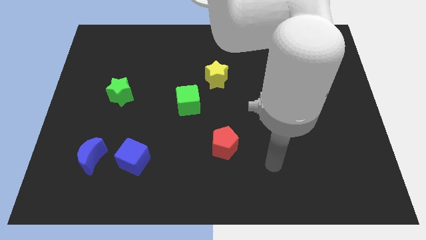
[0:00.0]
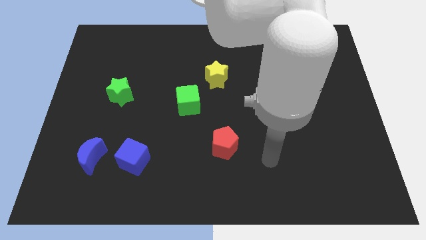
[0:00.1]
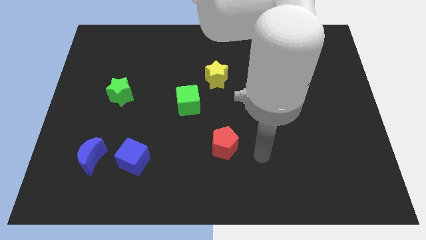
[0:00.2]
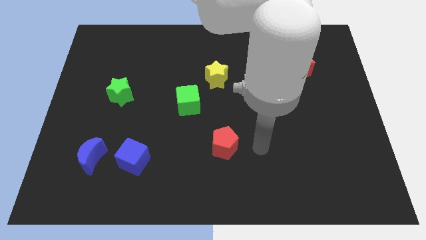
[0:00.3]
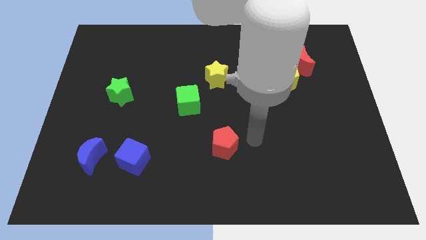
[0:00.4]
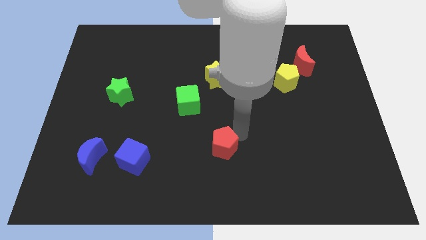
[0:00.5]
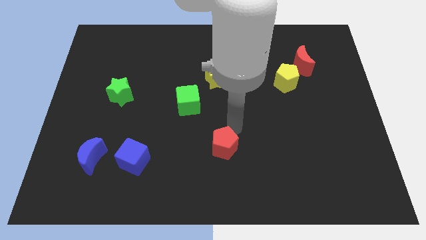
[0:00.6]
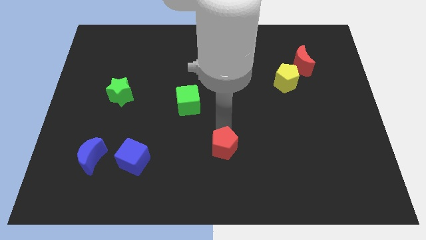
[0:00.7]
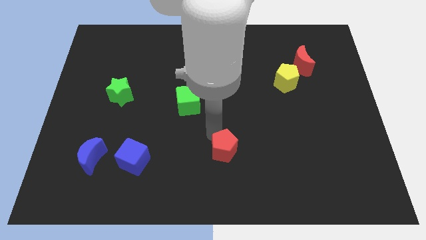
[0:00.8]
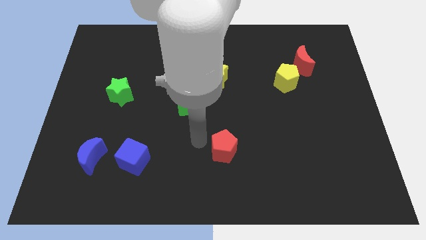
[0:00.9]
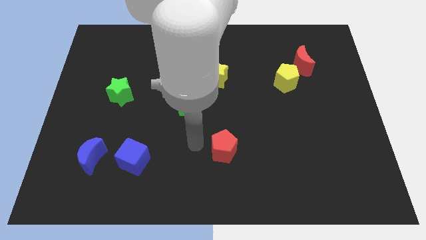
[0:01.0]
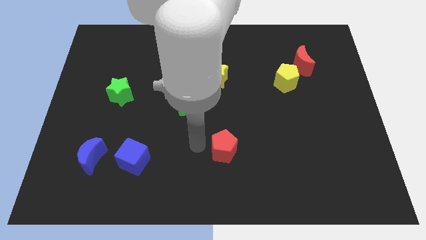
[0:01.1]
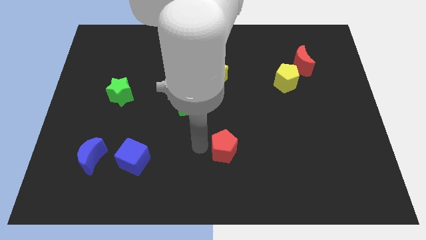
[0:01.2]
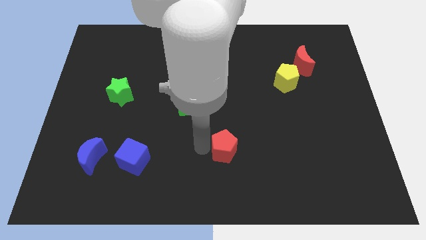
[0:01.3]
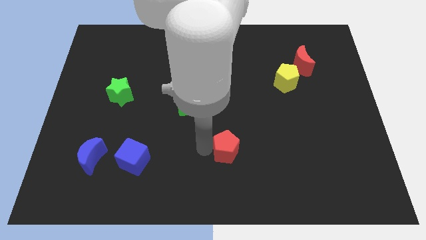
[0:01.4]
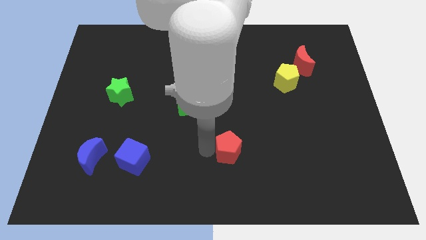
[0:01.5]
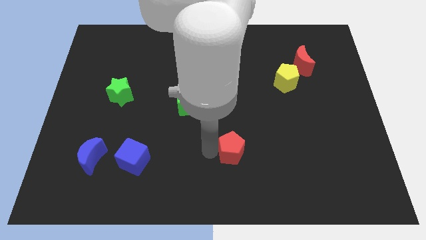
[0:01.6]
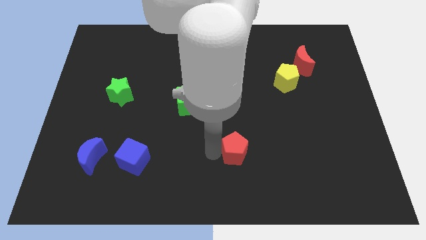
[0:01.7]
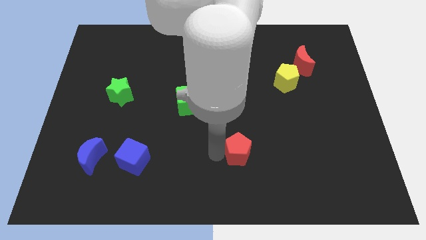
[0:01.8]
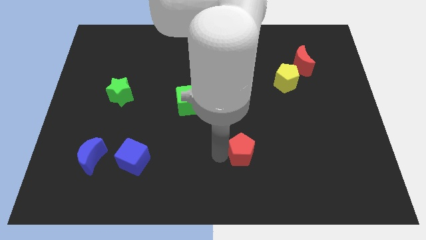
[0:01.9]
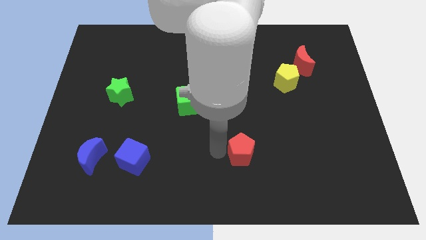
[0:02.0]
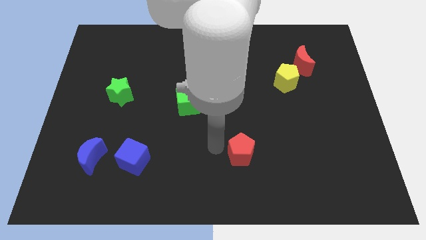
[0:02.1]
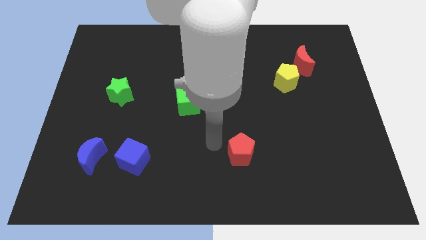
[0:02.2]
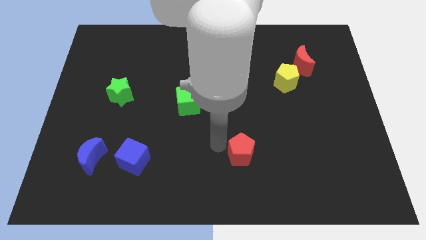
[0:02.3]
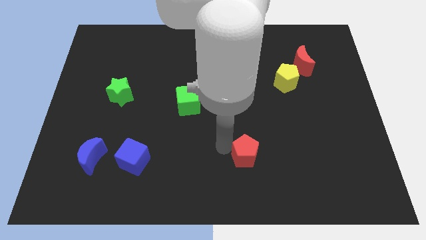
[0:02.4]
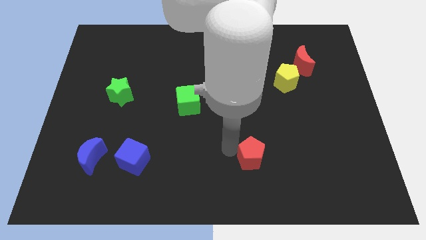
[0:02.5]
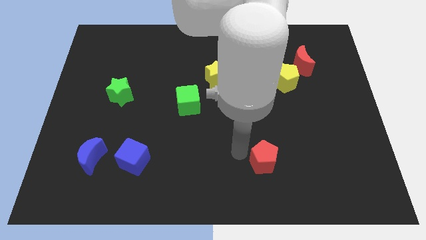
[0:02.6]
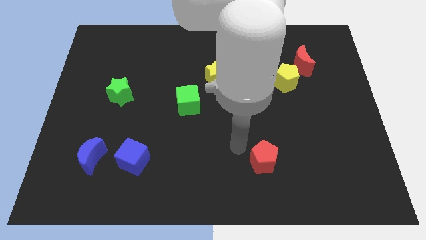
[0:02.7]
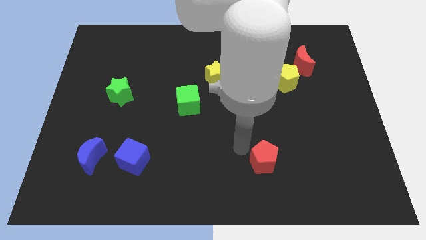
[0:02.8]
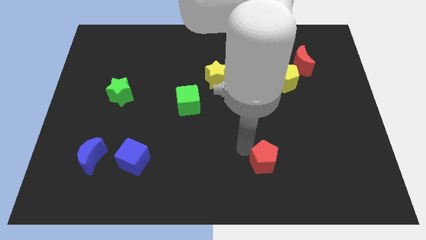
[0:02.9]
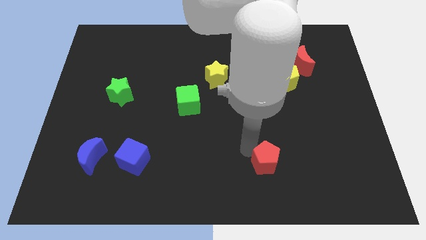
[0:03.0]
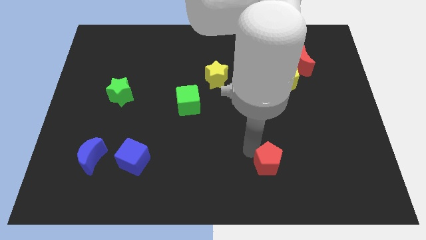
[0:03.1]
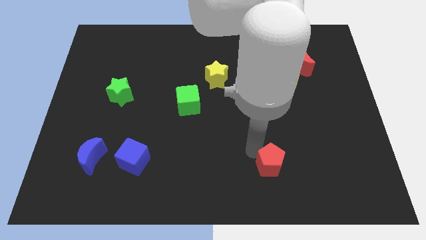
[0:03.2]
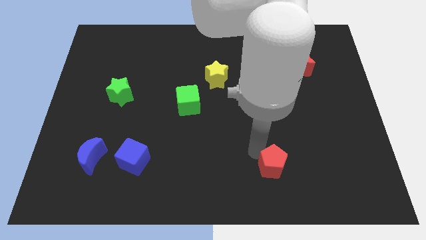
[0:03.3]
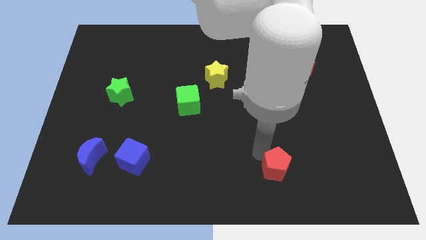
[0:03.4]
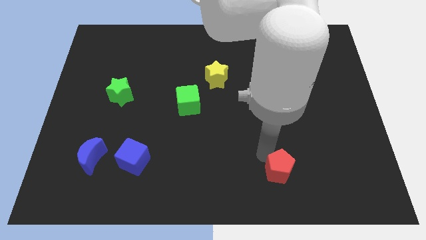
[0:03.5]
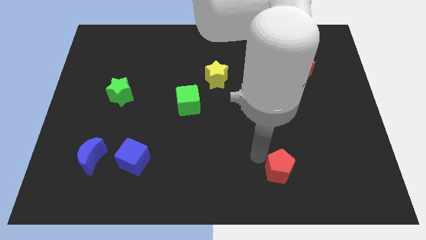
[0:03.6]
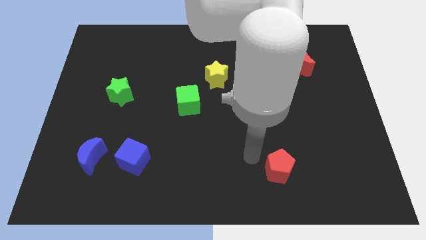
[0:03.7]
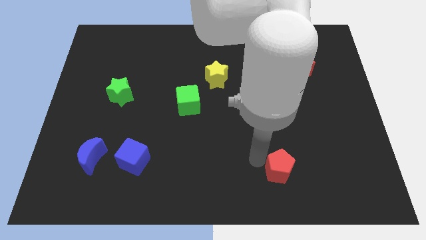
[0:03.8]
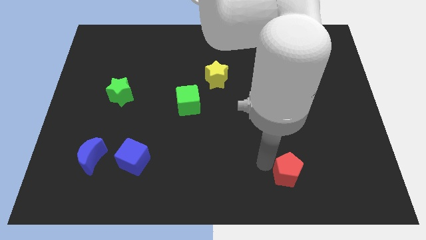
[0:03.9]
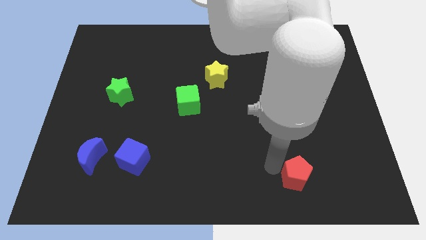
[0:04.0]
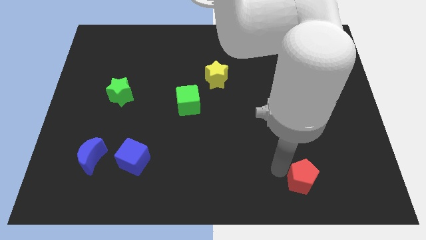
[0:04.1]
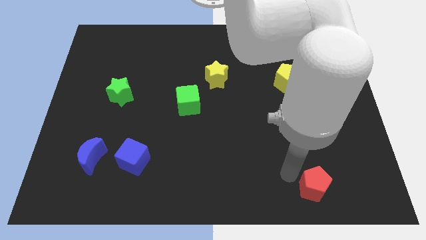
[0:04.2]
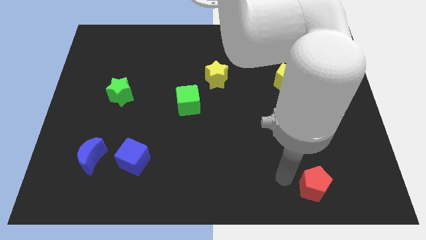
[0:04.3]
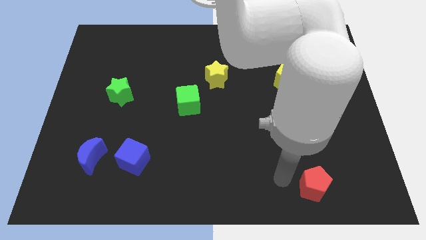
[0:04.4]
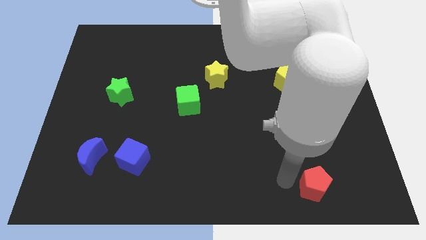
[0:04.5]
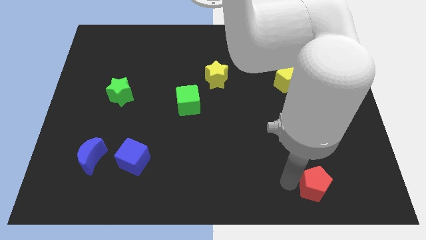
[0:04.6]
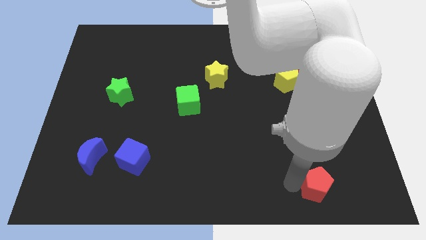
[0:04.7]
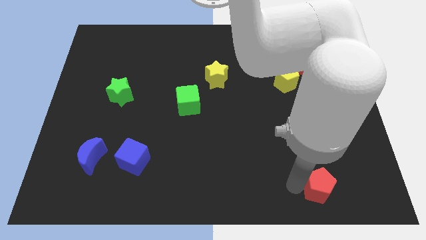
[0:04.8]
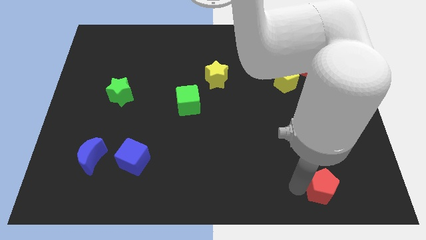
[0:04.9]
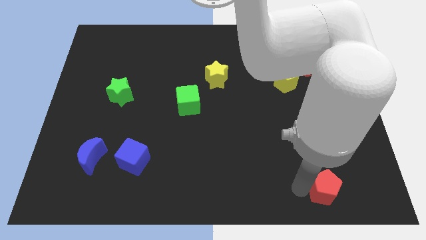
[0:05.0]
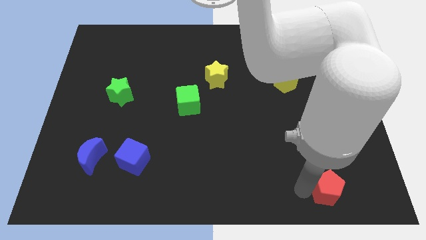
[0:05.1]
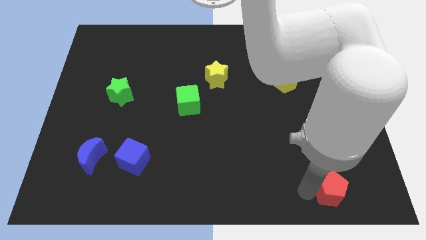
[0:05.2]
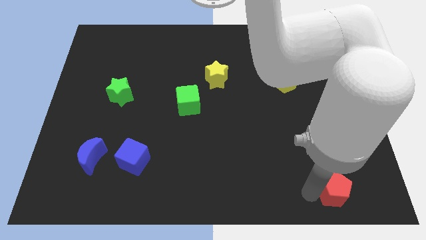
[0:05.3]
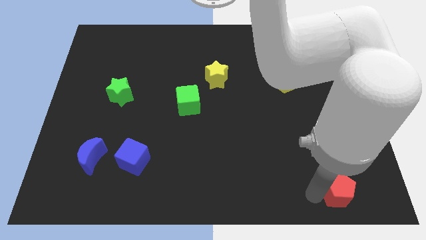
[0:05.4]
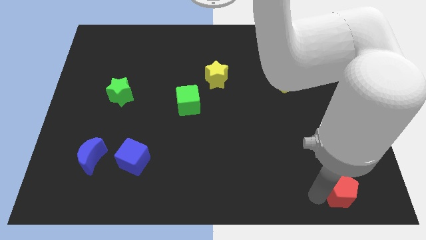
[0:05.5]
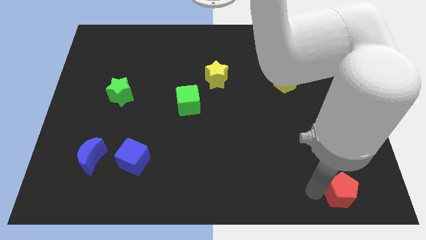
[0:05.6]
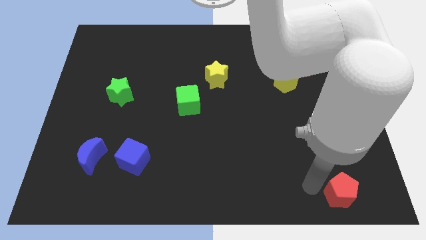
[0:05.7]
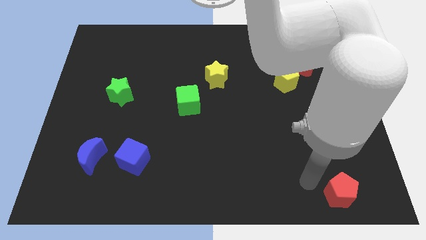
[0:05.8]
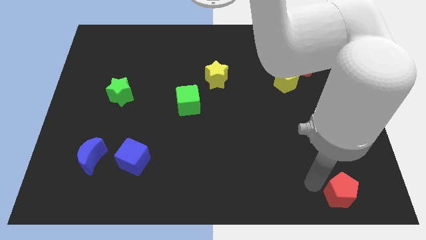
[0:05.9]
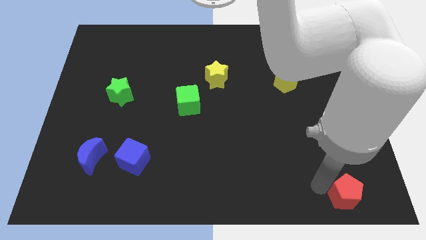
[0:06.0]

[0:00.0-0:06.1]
move the red pentagon to the bottom right of the board
